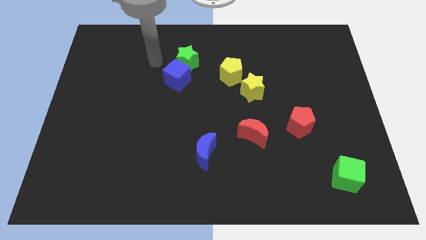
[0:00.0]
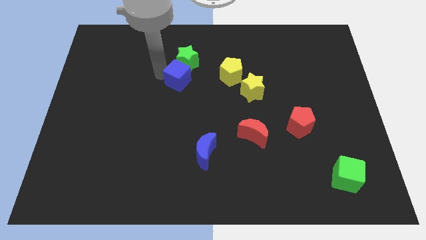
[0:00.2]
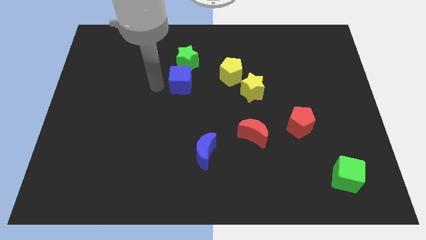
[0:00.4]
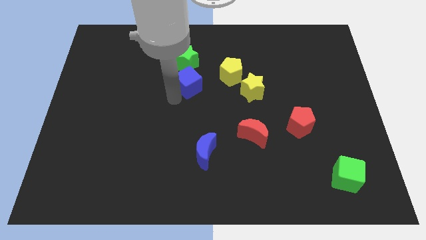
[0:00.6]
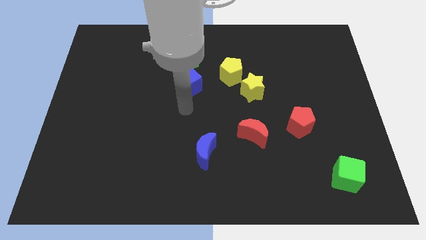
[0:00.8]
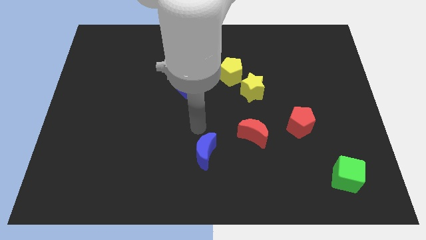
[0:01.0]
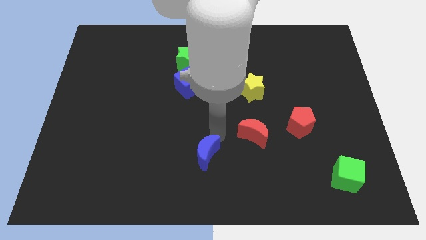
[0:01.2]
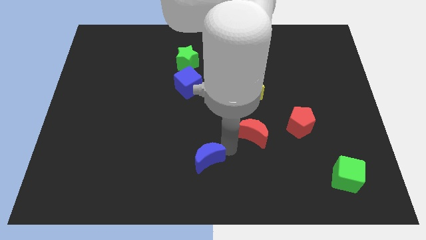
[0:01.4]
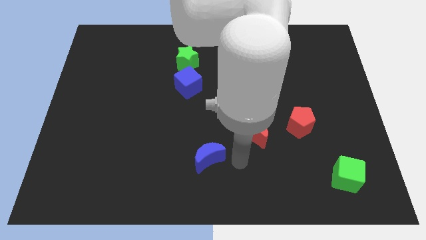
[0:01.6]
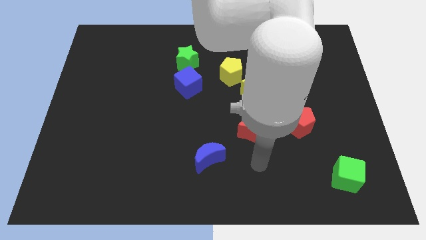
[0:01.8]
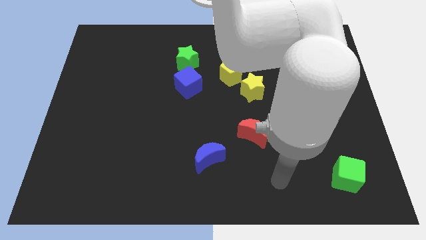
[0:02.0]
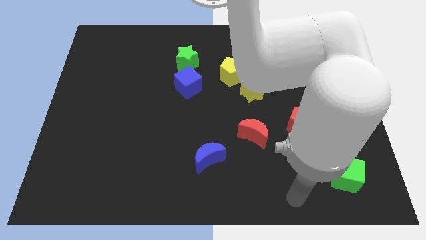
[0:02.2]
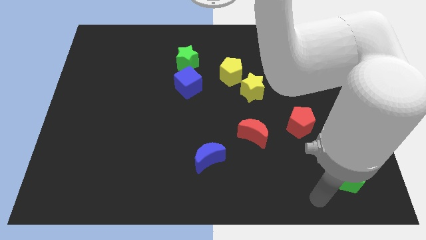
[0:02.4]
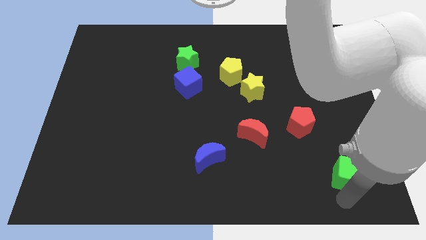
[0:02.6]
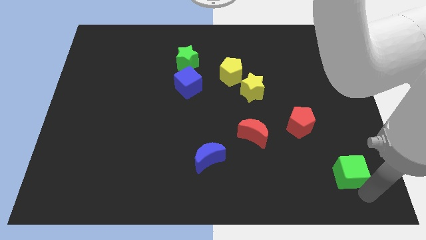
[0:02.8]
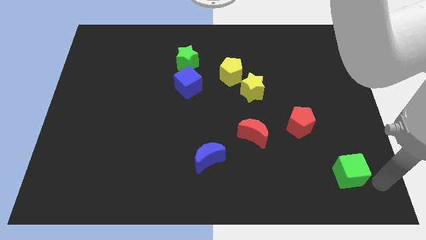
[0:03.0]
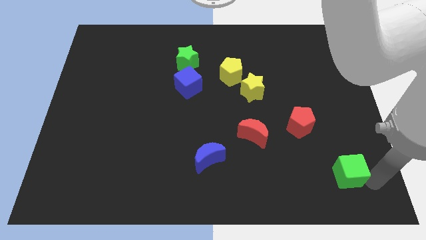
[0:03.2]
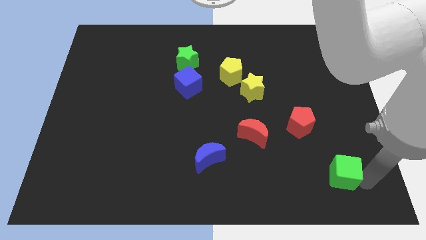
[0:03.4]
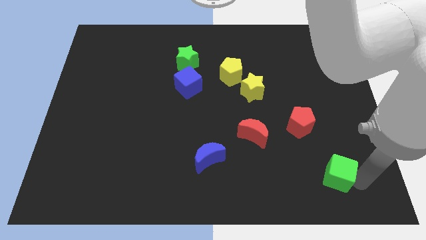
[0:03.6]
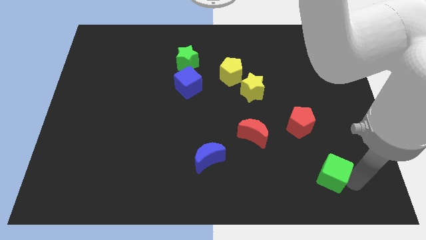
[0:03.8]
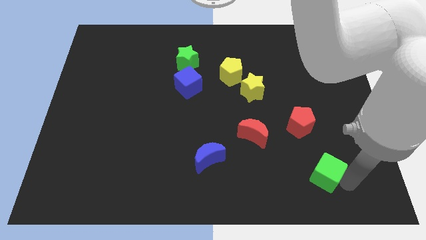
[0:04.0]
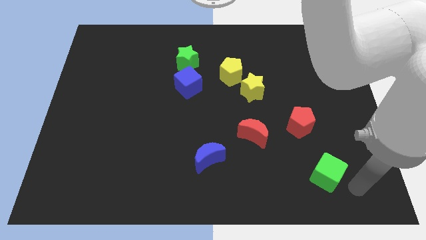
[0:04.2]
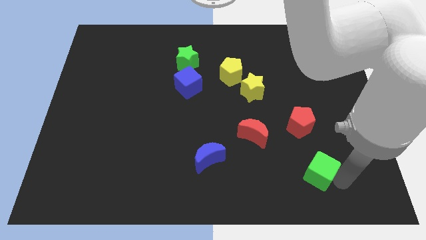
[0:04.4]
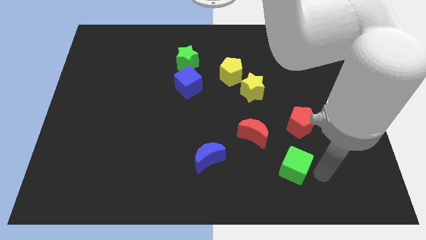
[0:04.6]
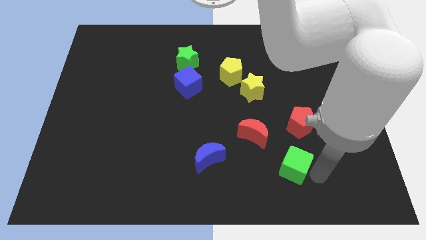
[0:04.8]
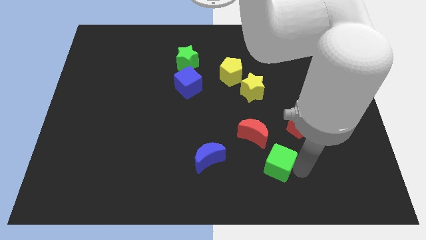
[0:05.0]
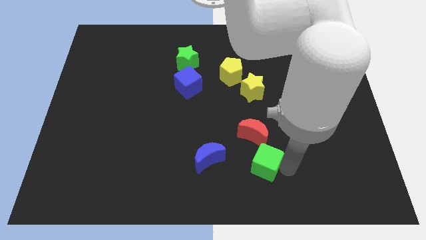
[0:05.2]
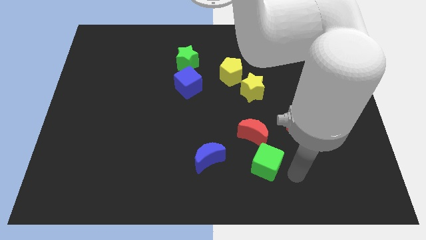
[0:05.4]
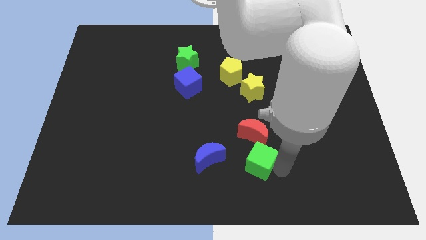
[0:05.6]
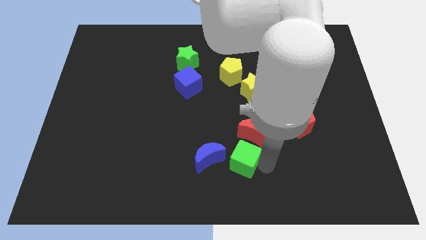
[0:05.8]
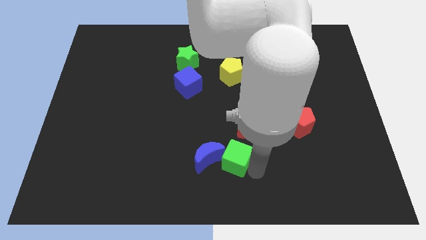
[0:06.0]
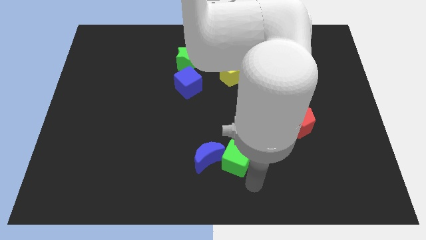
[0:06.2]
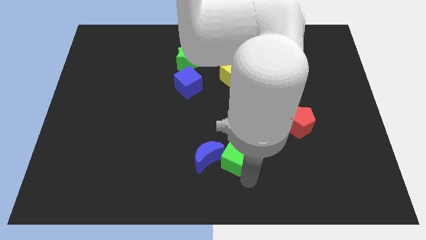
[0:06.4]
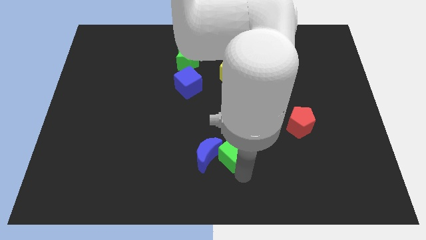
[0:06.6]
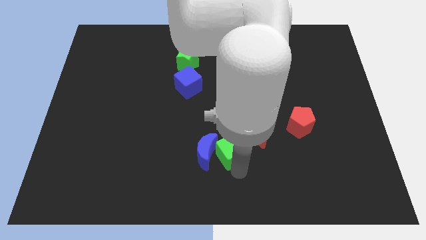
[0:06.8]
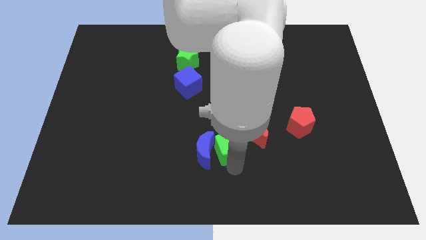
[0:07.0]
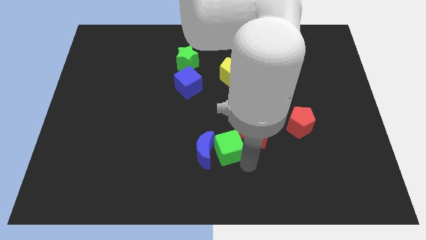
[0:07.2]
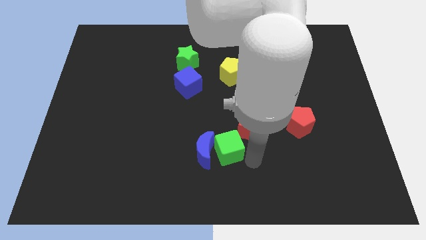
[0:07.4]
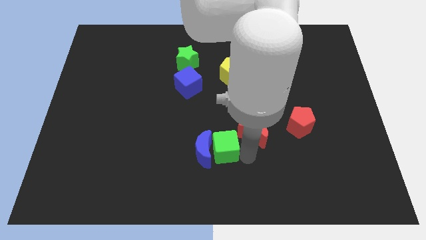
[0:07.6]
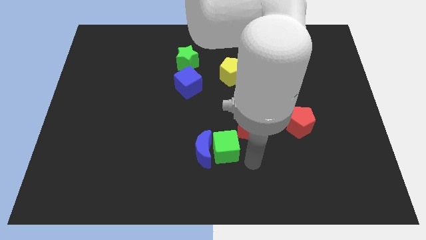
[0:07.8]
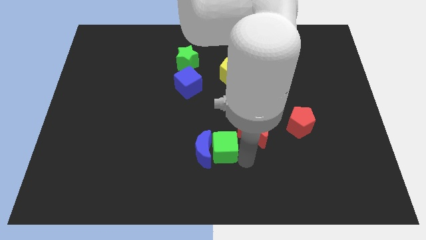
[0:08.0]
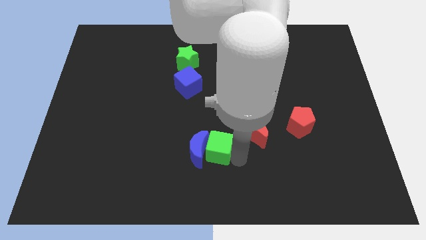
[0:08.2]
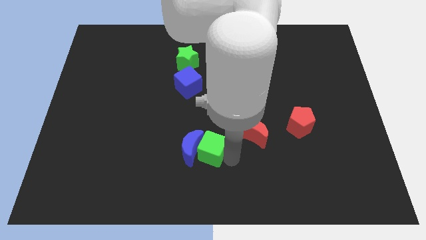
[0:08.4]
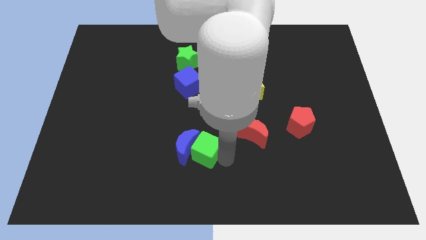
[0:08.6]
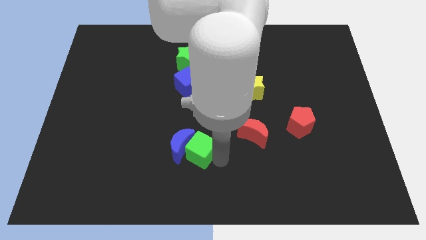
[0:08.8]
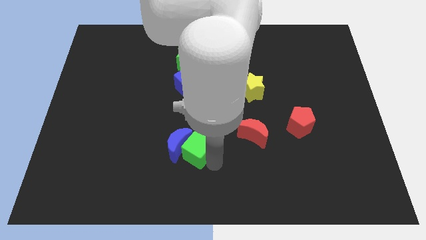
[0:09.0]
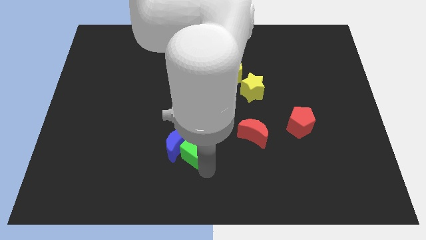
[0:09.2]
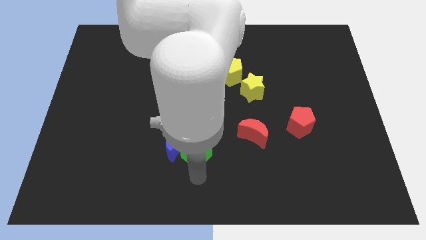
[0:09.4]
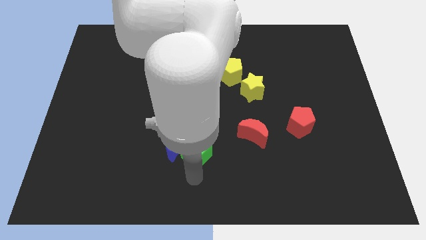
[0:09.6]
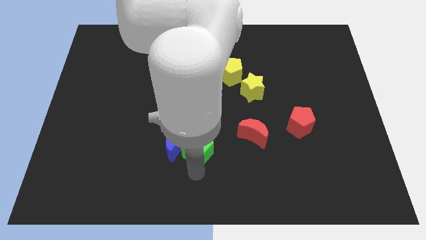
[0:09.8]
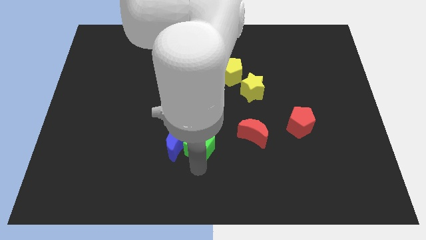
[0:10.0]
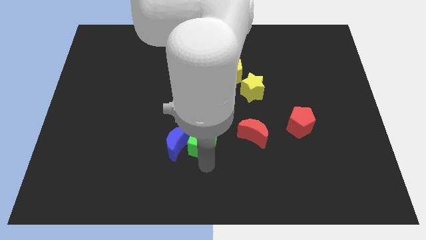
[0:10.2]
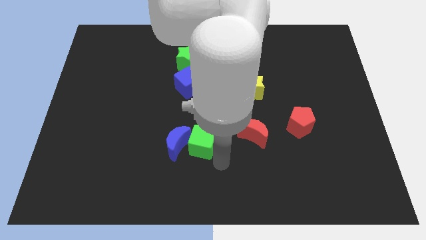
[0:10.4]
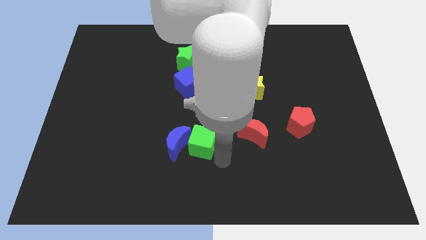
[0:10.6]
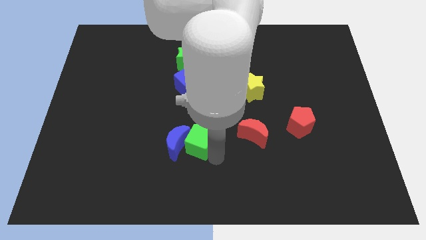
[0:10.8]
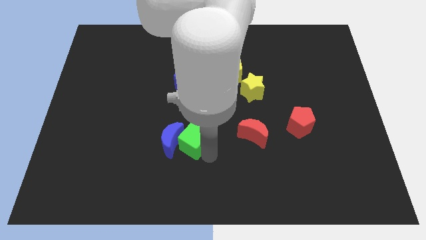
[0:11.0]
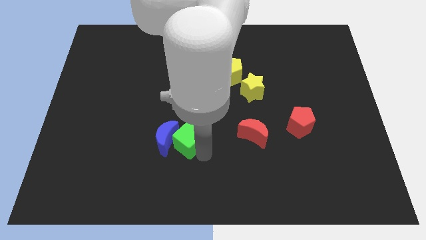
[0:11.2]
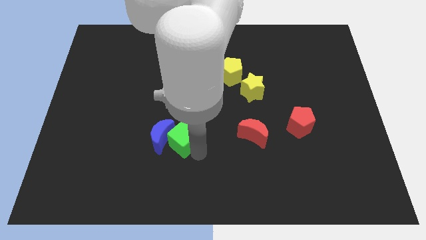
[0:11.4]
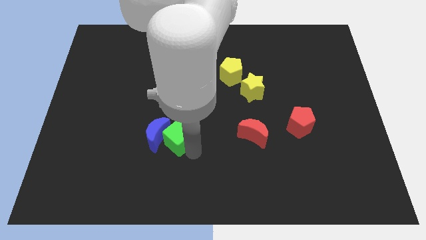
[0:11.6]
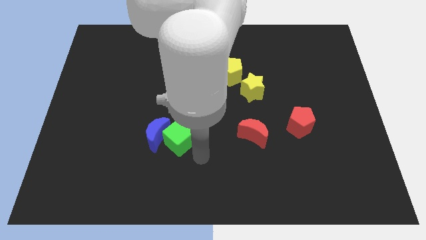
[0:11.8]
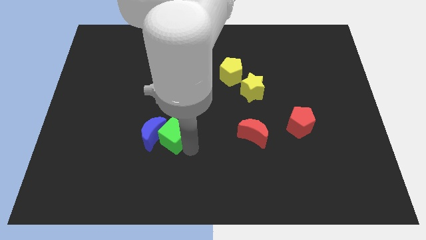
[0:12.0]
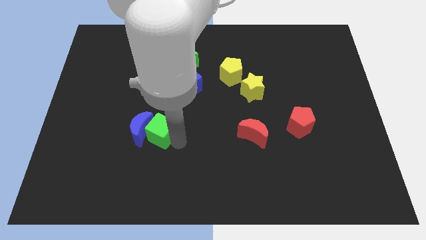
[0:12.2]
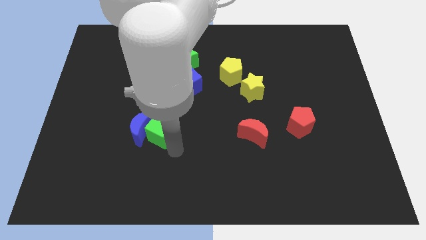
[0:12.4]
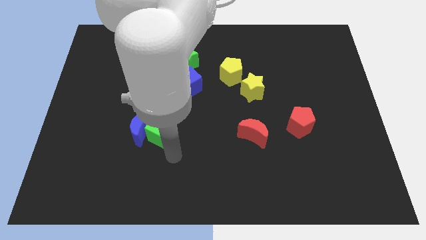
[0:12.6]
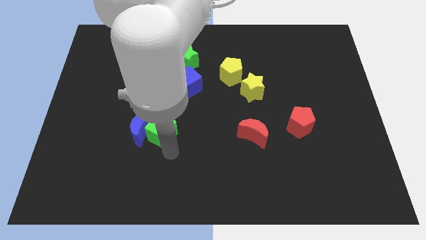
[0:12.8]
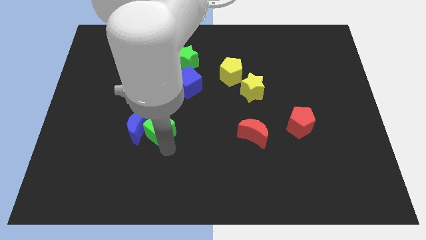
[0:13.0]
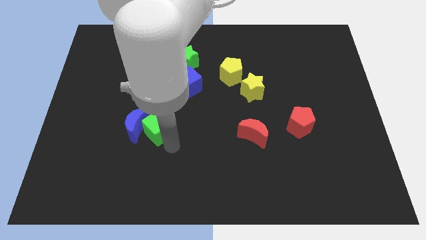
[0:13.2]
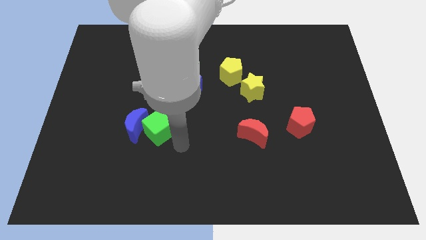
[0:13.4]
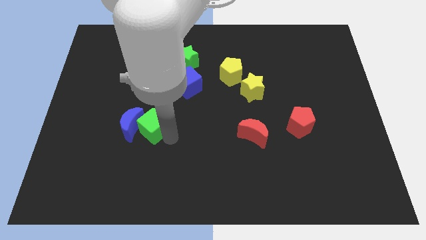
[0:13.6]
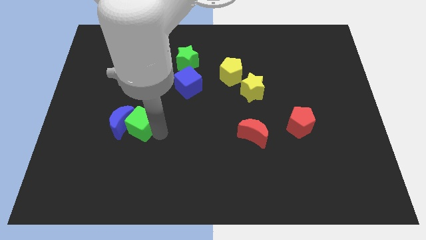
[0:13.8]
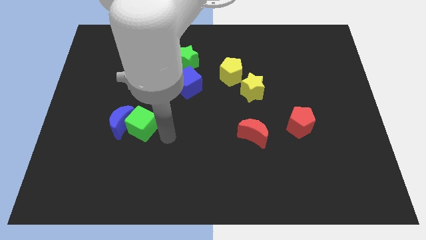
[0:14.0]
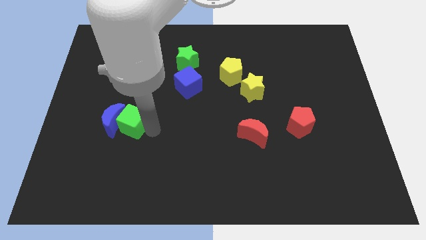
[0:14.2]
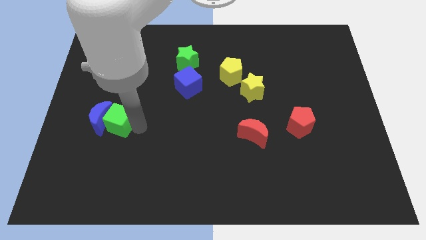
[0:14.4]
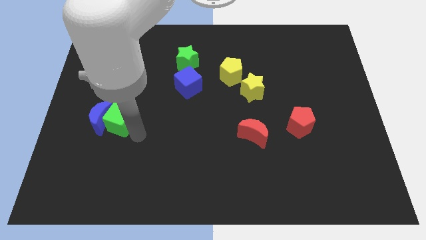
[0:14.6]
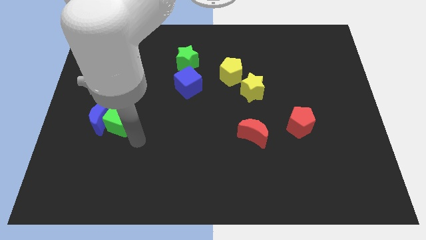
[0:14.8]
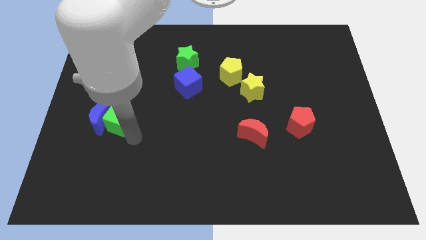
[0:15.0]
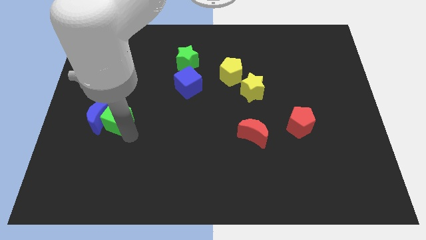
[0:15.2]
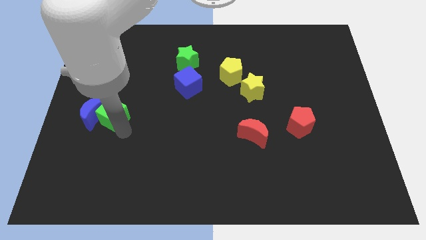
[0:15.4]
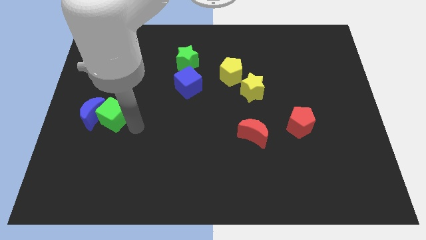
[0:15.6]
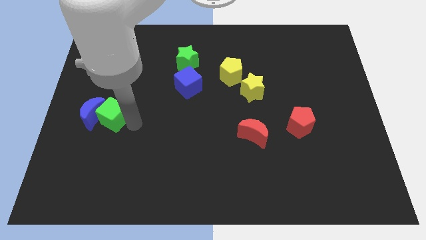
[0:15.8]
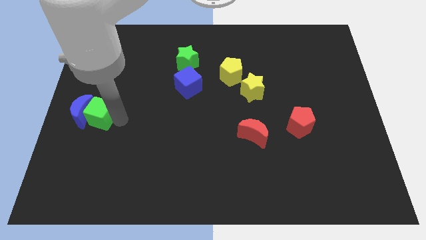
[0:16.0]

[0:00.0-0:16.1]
push the green cube to the left side
